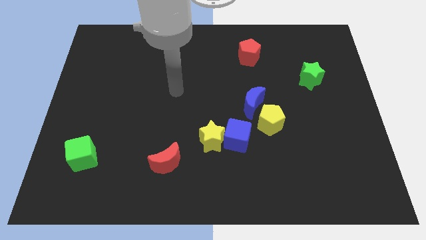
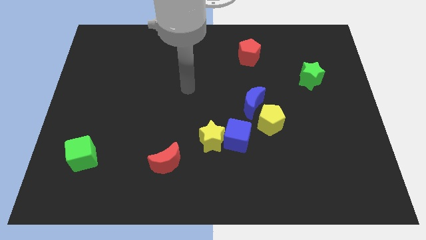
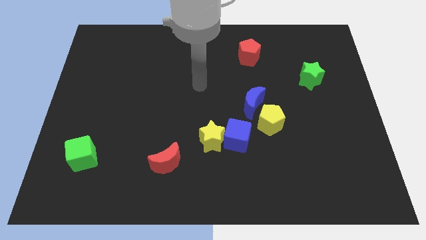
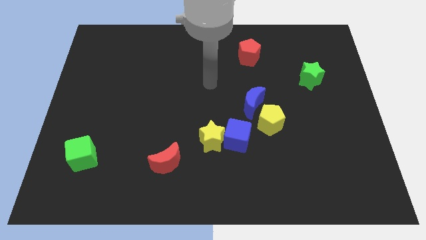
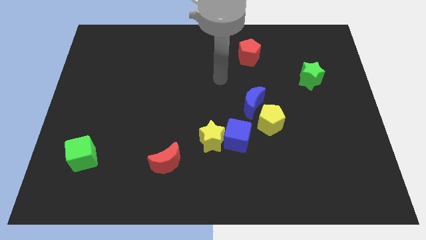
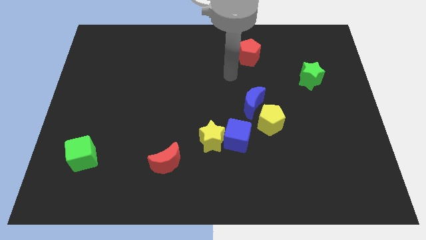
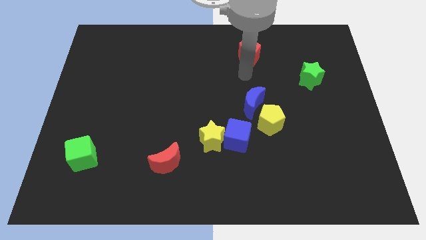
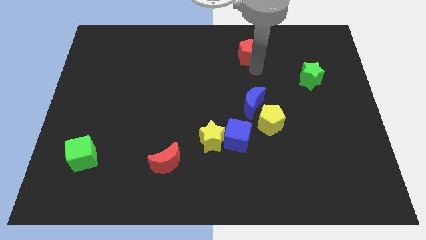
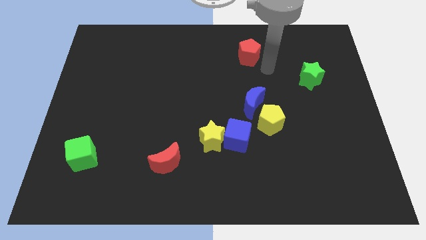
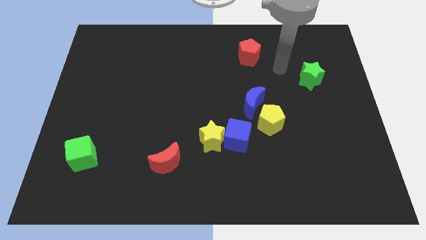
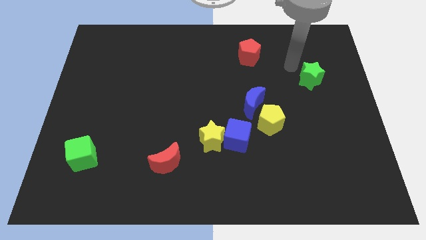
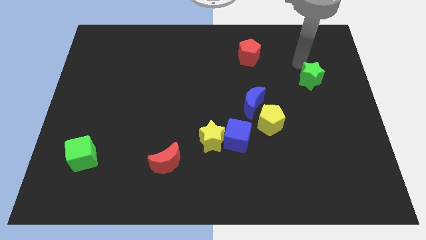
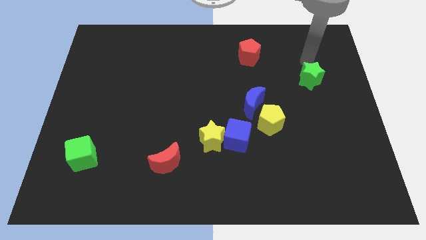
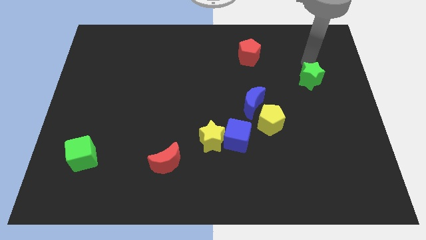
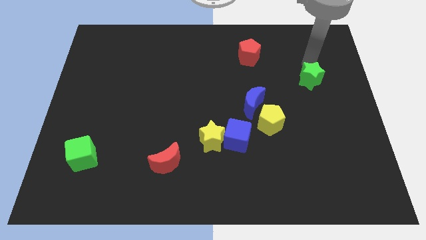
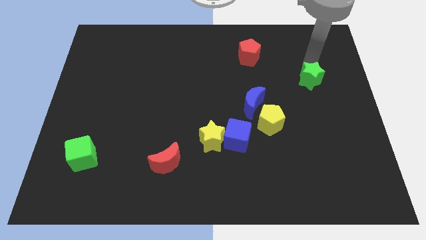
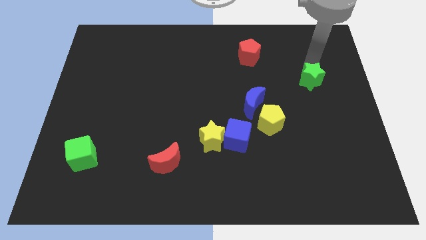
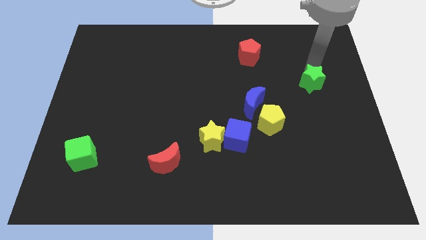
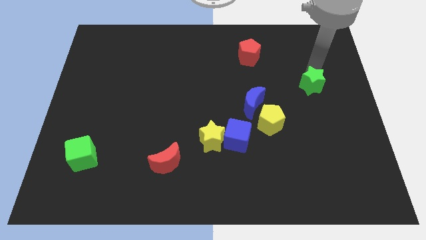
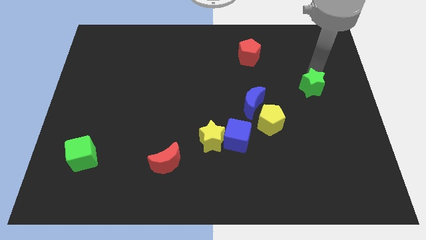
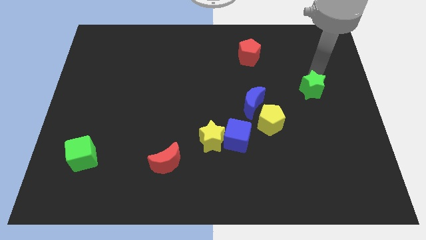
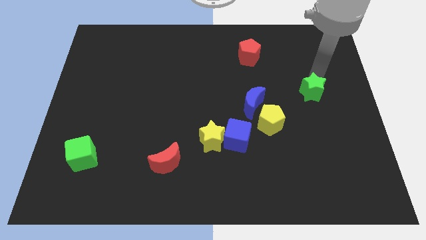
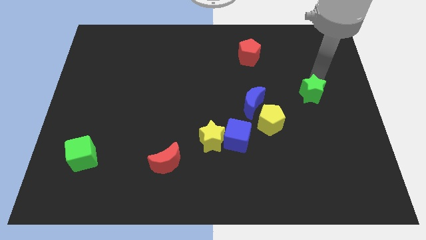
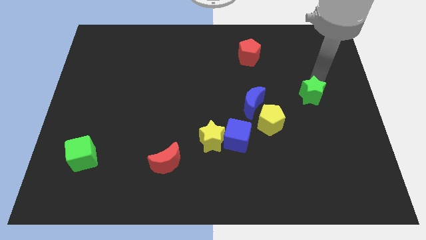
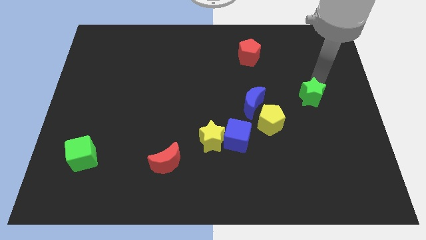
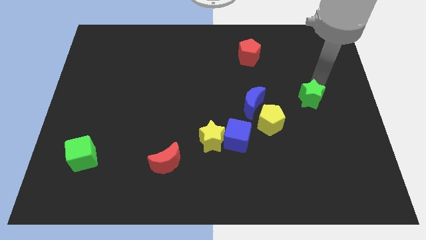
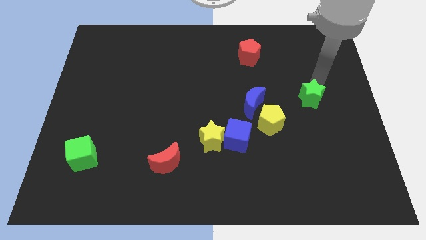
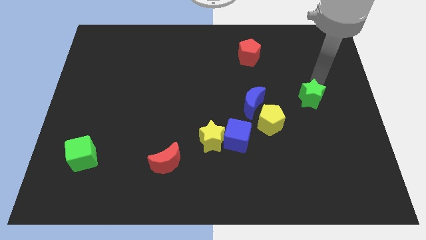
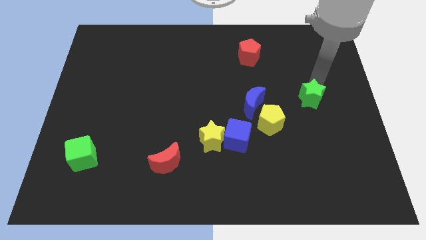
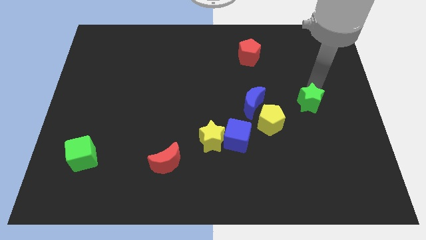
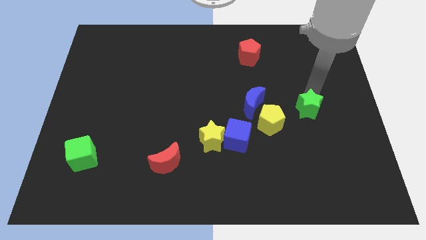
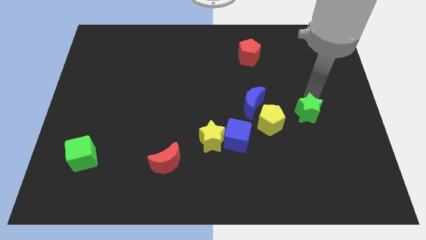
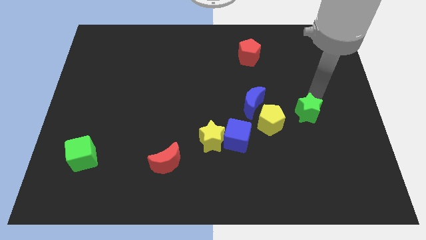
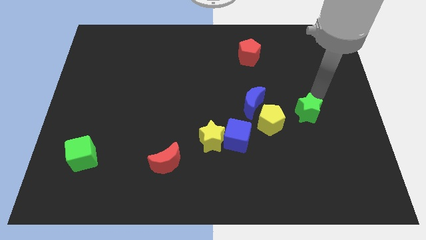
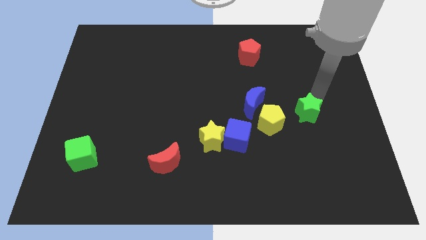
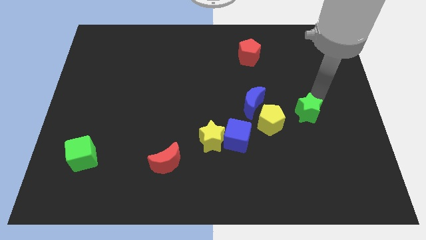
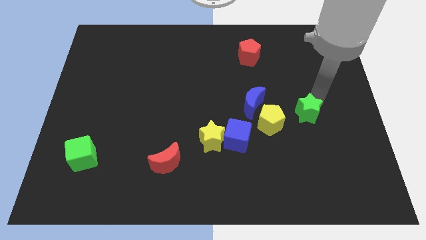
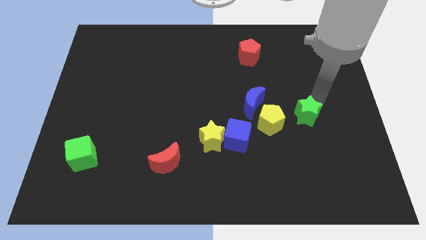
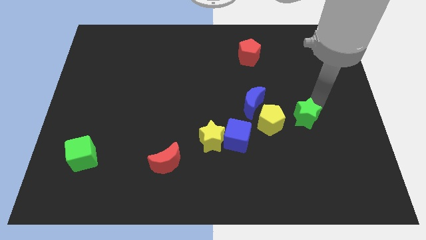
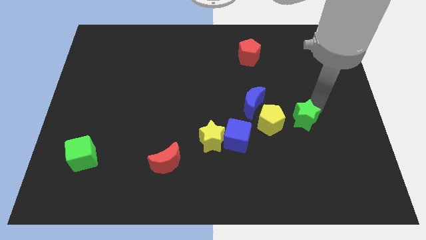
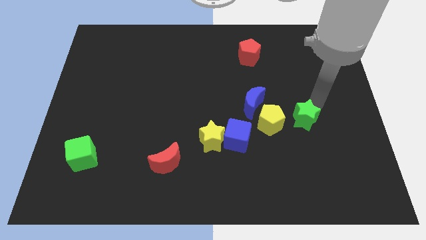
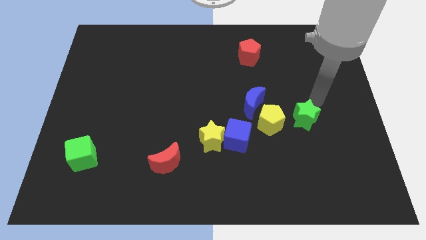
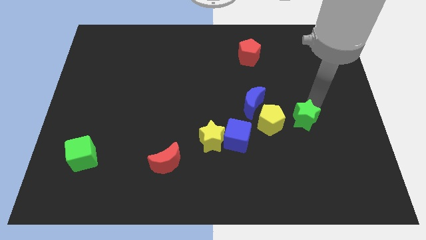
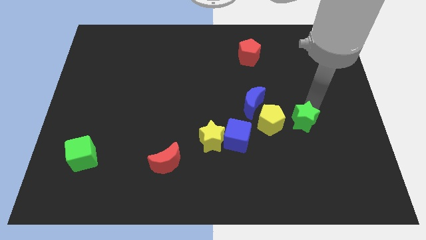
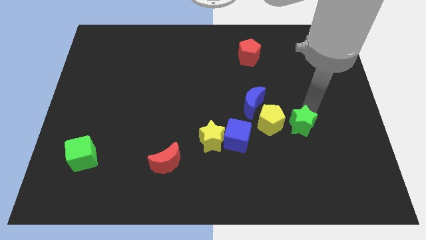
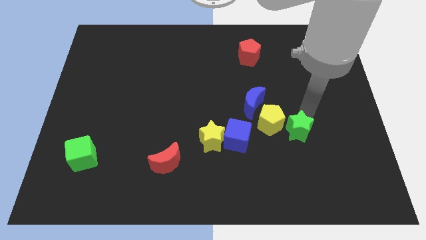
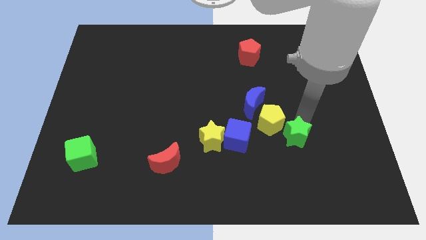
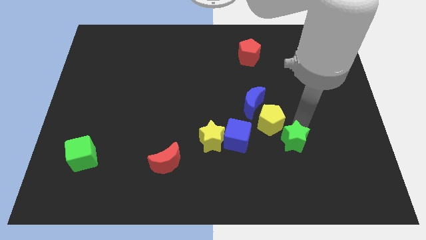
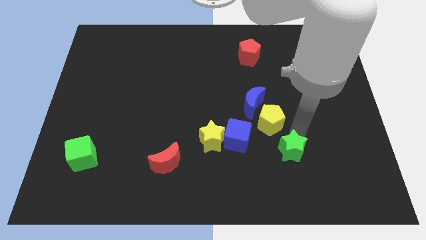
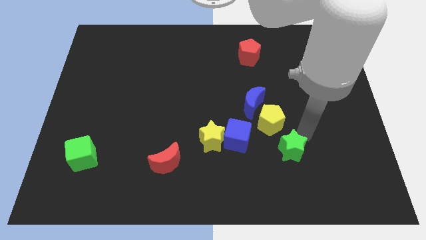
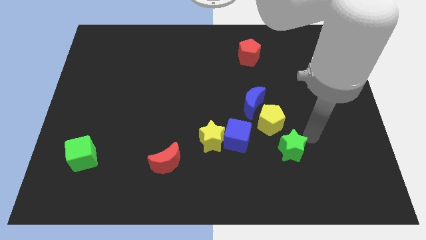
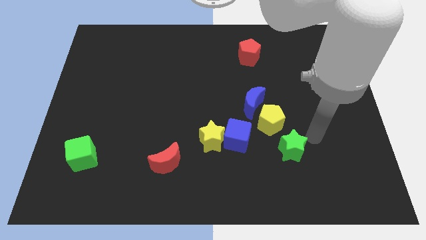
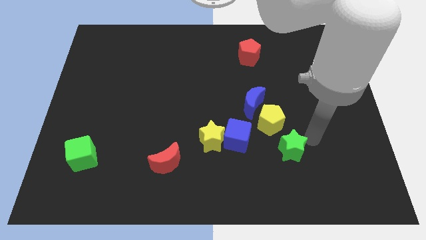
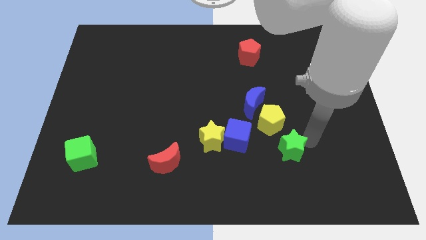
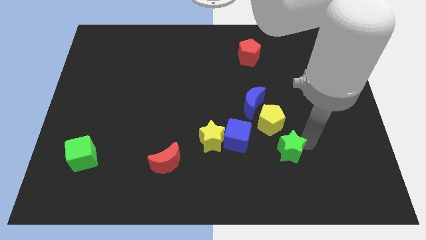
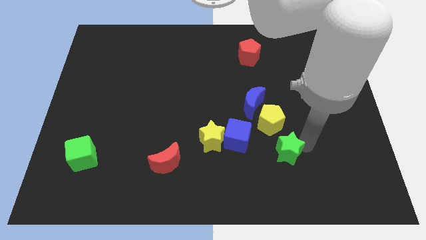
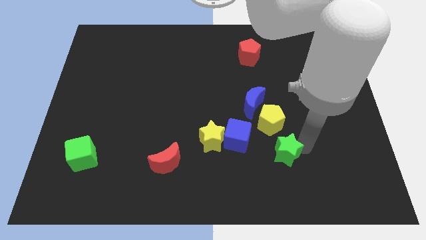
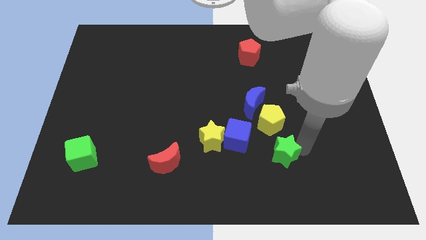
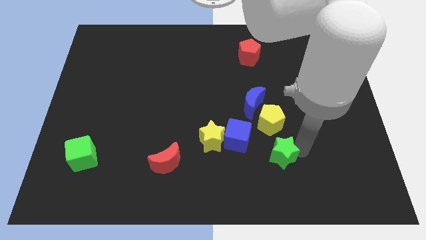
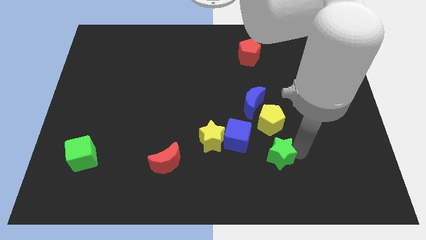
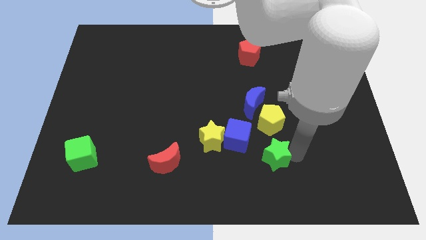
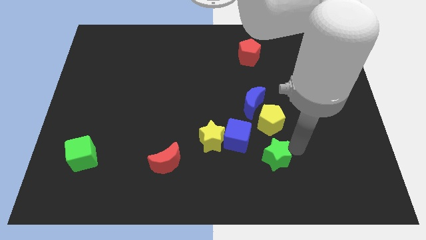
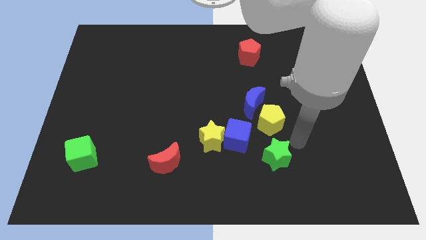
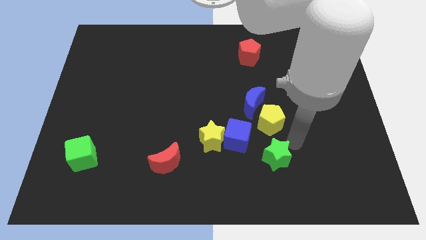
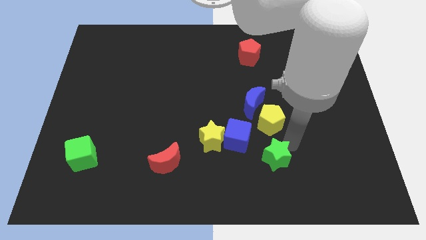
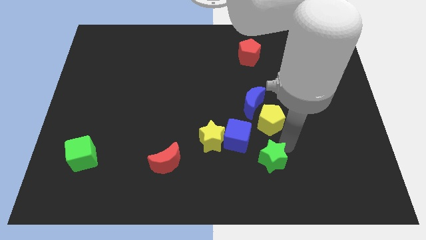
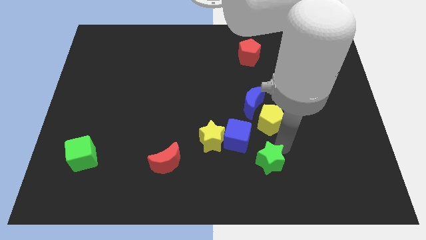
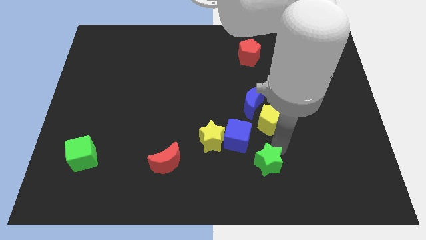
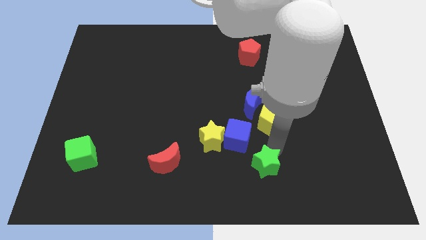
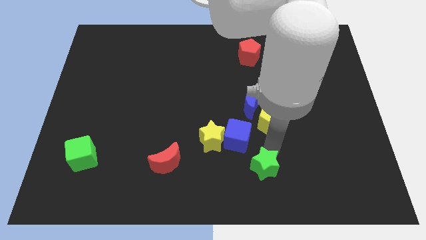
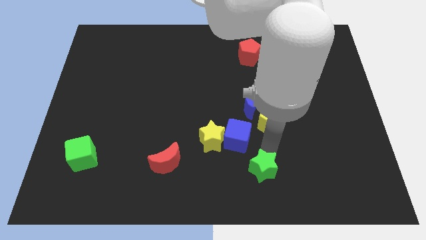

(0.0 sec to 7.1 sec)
move the green star to the bottom of the blue cube

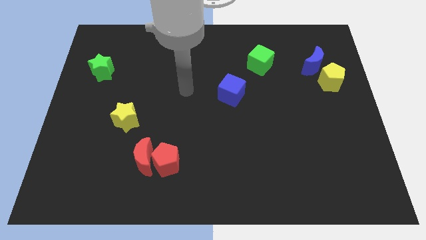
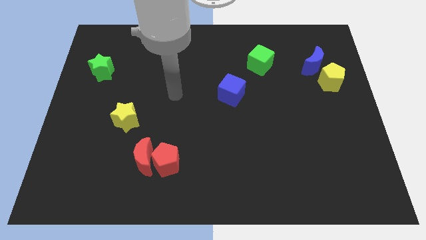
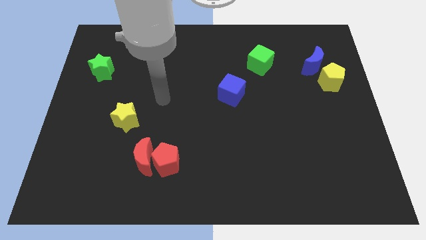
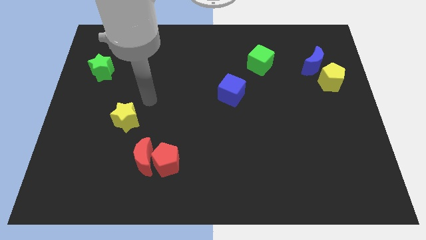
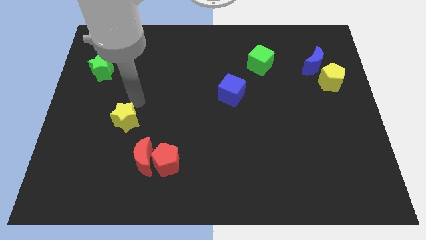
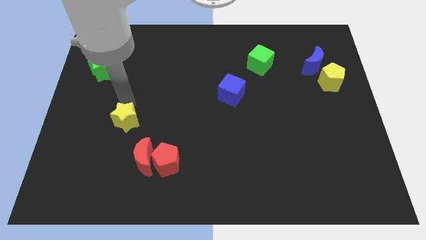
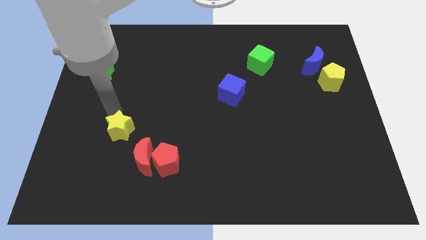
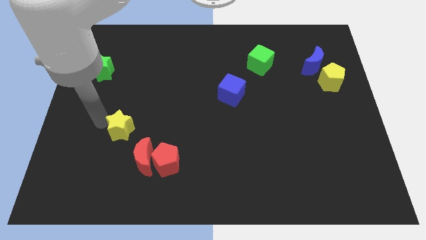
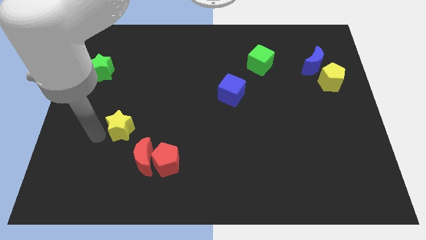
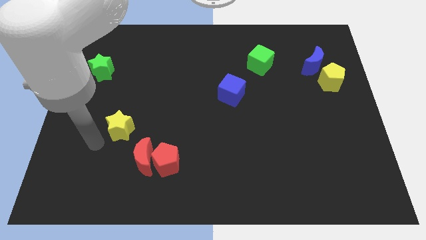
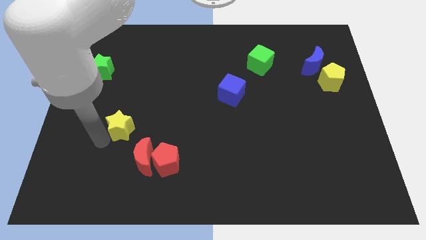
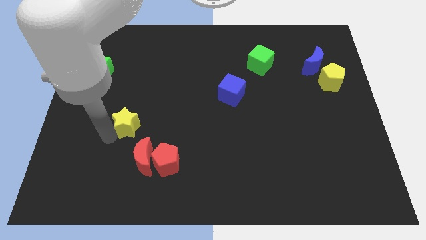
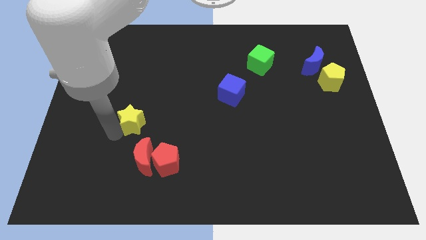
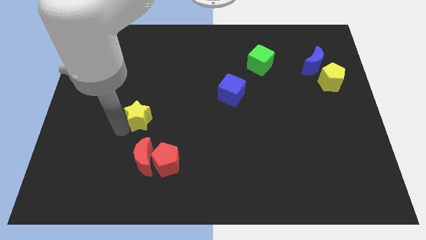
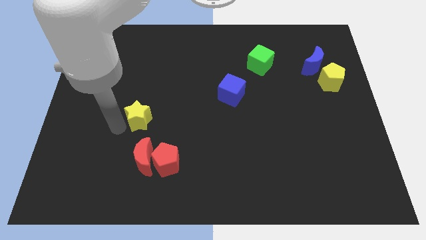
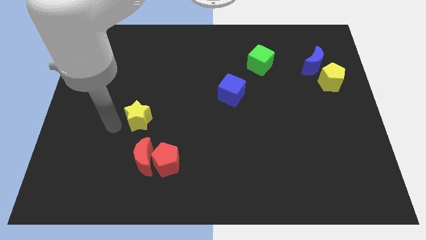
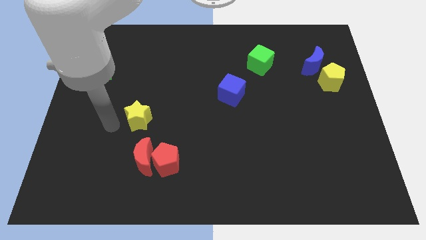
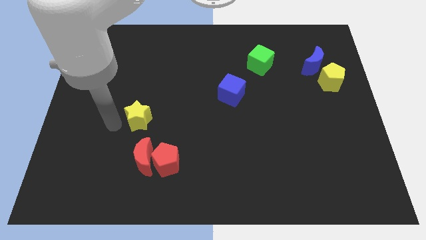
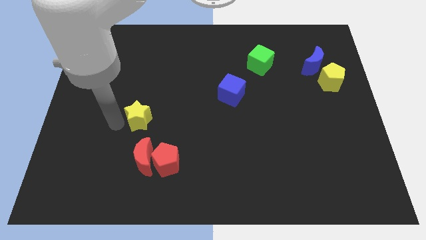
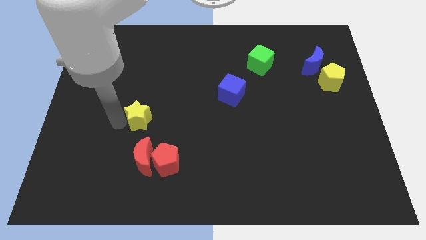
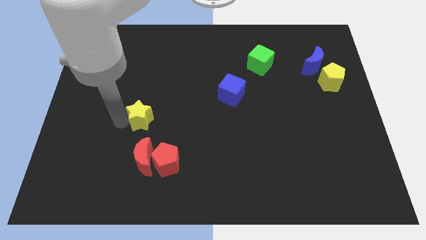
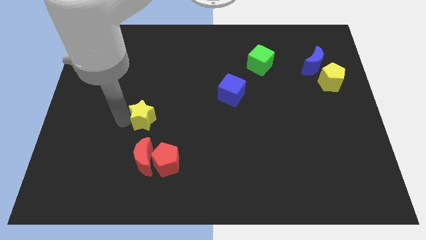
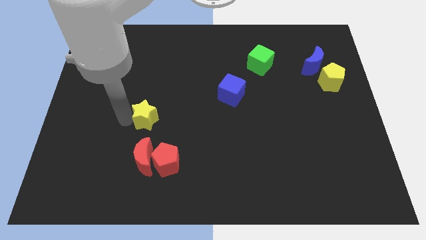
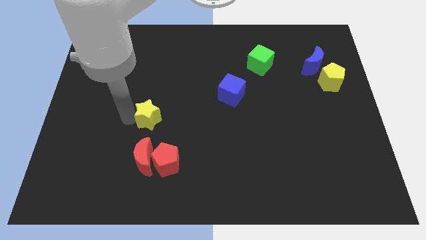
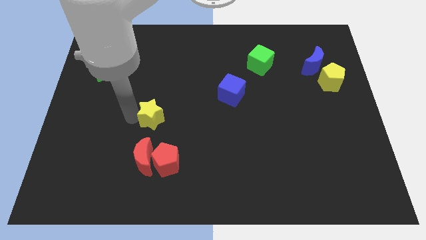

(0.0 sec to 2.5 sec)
move the yellow star to the top of the red pentagon
